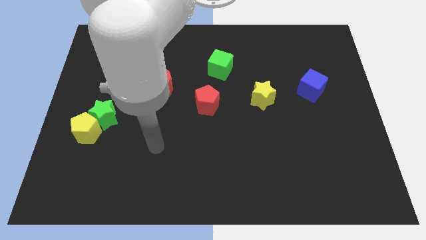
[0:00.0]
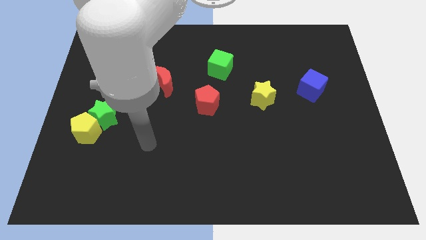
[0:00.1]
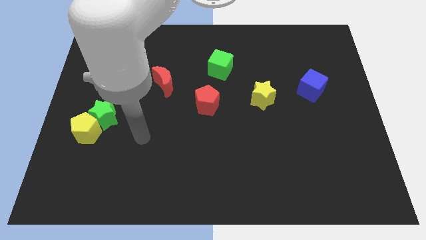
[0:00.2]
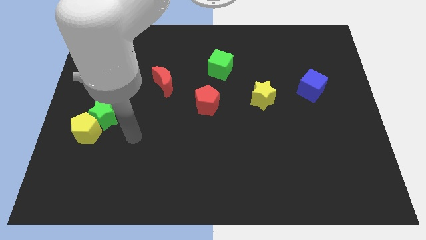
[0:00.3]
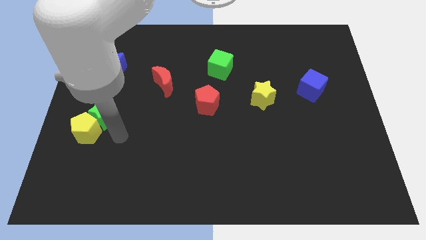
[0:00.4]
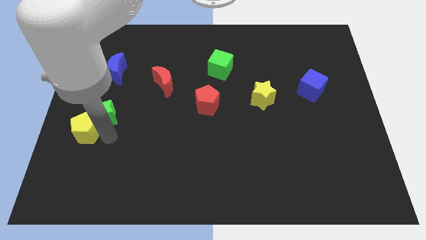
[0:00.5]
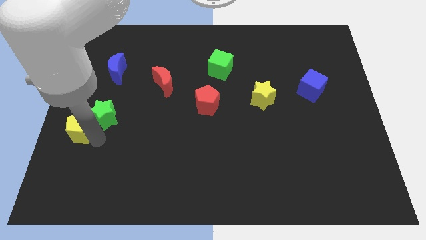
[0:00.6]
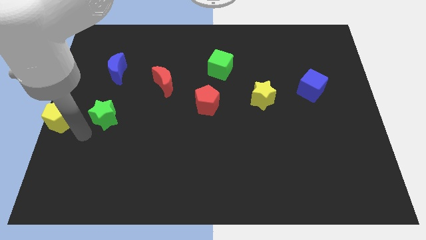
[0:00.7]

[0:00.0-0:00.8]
pull the green star apart from the yellow pentagon

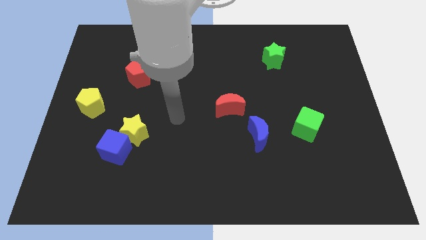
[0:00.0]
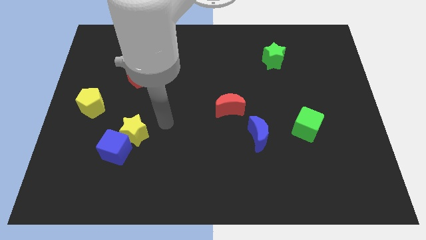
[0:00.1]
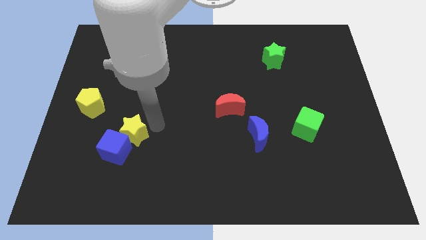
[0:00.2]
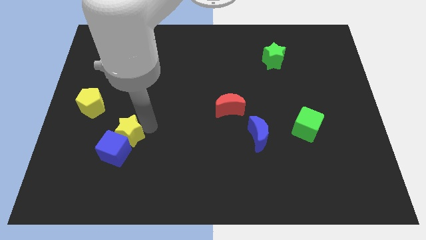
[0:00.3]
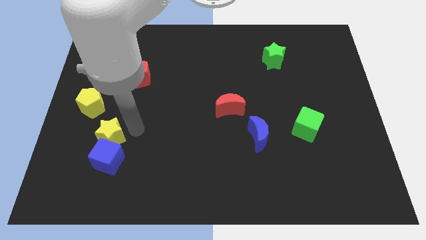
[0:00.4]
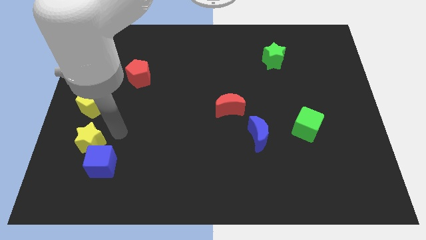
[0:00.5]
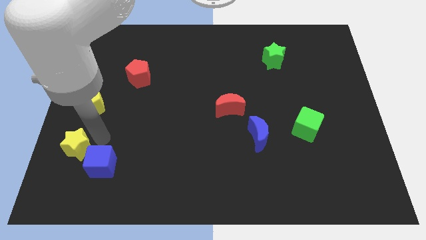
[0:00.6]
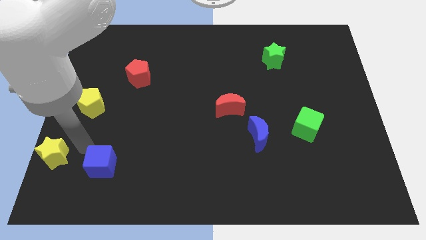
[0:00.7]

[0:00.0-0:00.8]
pull the blue cube apart from the yellow star

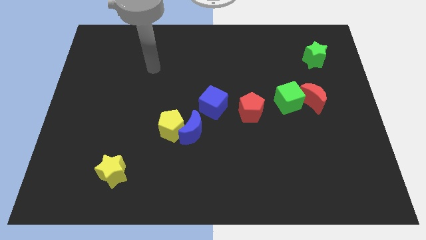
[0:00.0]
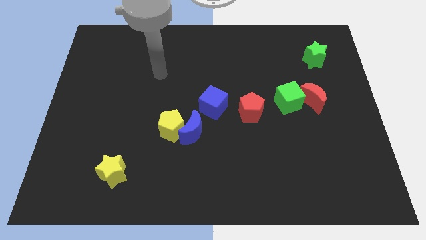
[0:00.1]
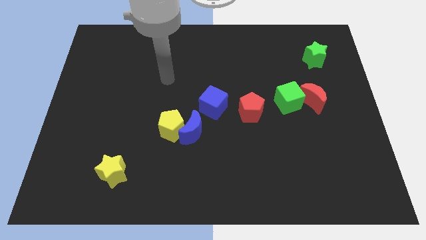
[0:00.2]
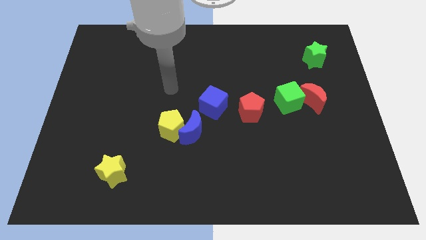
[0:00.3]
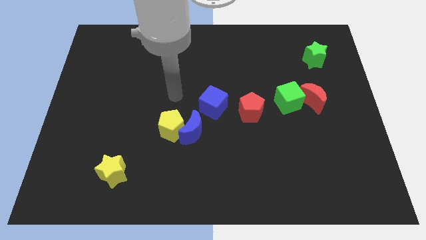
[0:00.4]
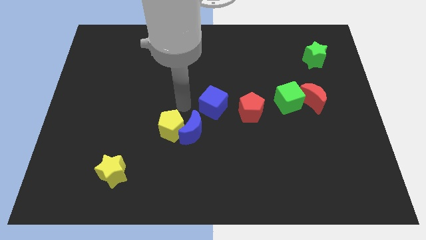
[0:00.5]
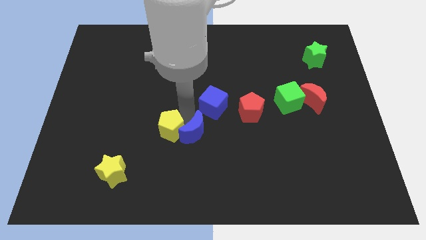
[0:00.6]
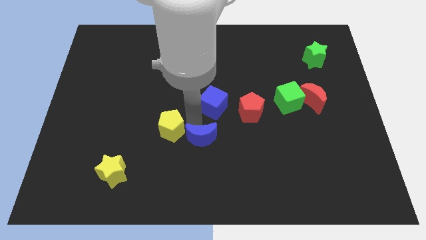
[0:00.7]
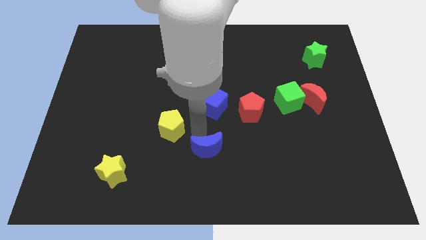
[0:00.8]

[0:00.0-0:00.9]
pull the yellow pentagon apart from the blue moon

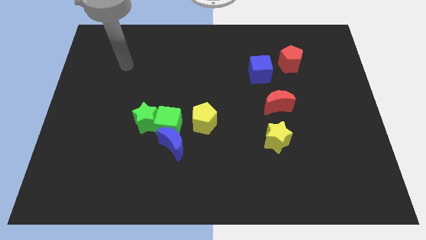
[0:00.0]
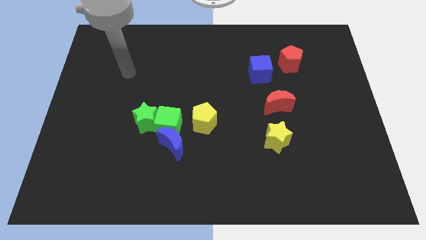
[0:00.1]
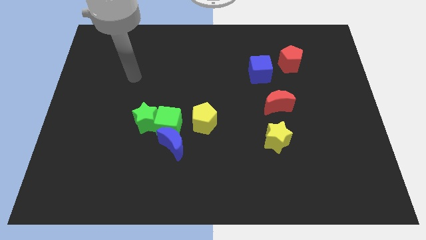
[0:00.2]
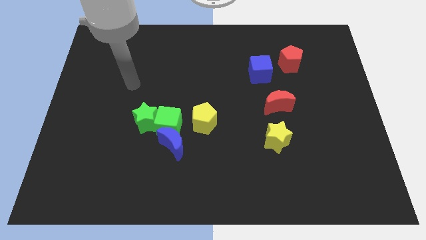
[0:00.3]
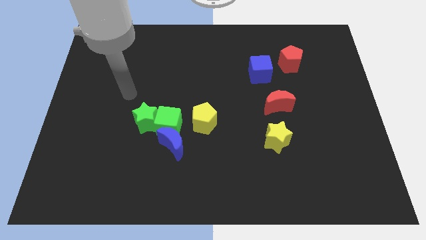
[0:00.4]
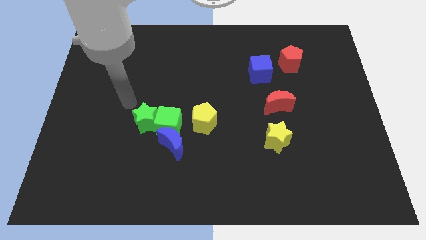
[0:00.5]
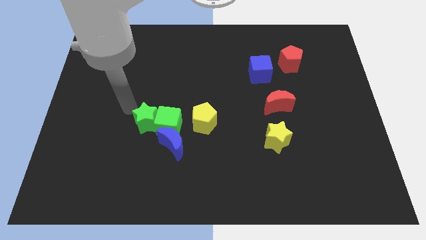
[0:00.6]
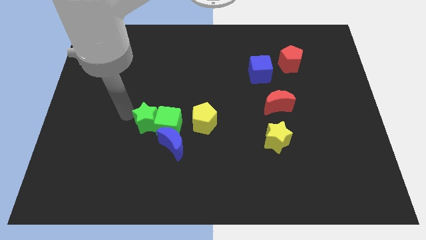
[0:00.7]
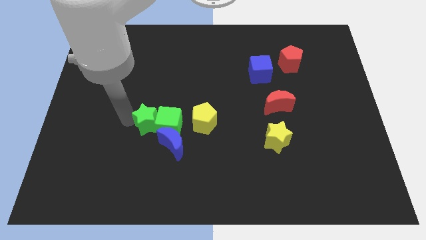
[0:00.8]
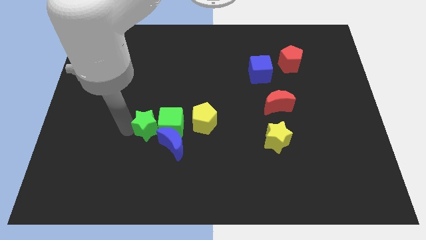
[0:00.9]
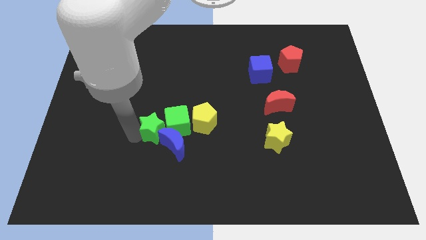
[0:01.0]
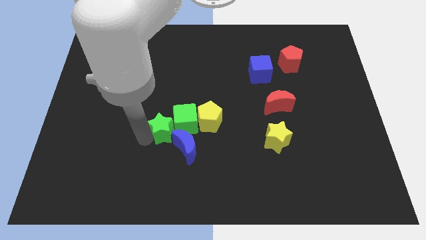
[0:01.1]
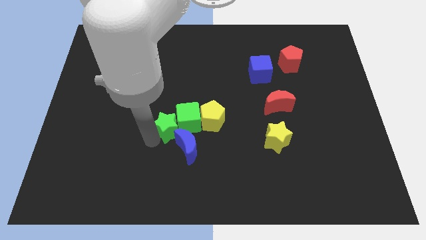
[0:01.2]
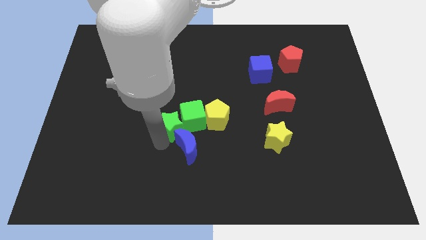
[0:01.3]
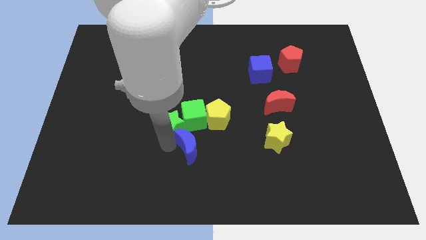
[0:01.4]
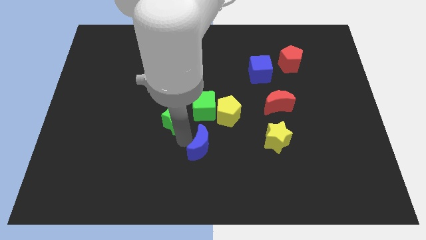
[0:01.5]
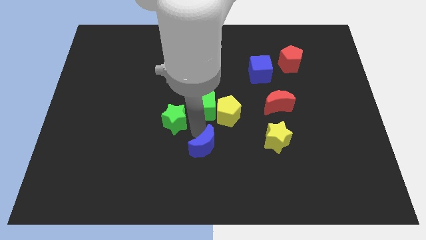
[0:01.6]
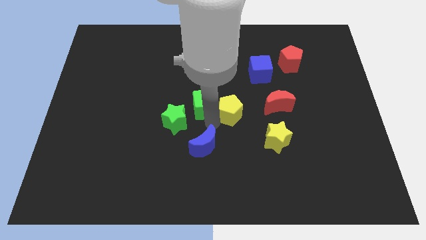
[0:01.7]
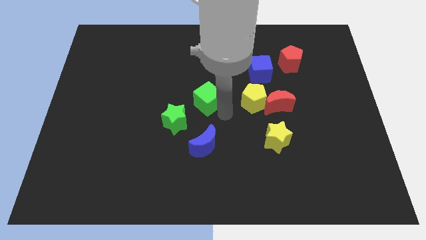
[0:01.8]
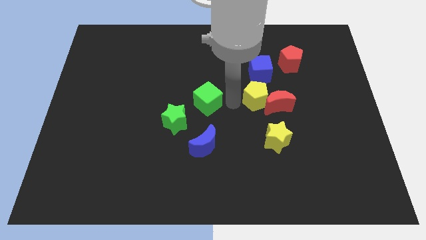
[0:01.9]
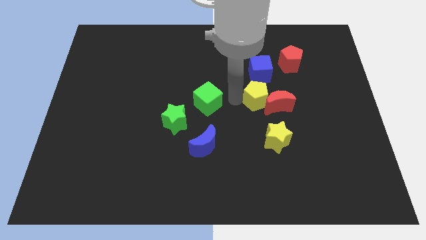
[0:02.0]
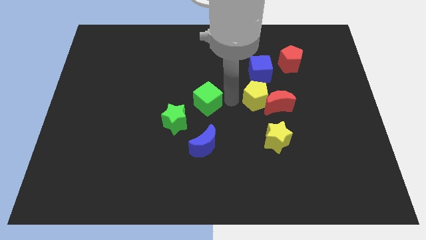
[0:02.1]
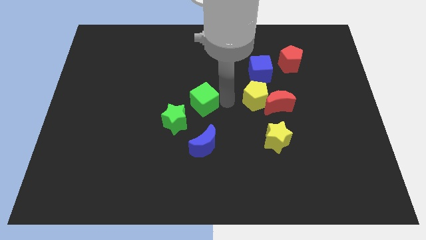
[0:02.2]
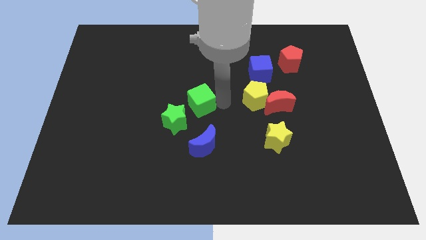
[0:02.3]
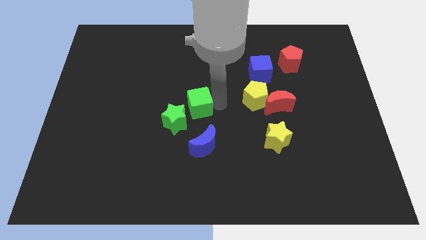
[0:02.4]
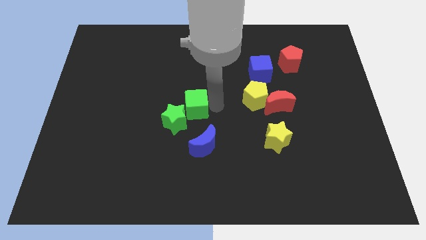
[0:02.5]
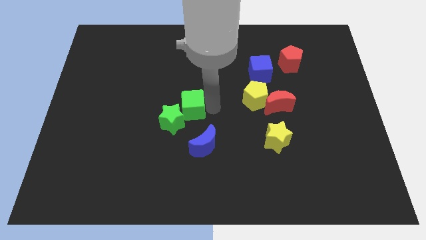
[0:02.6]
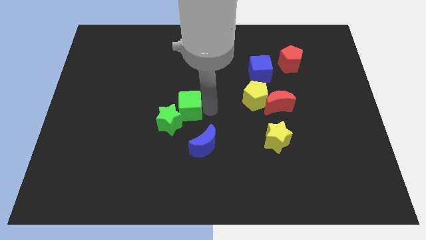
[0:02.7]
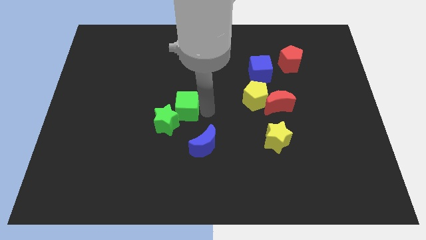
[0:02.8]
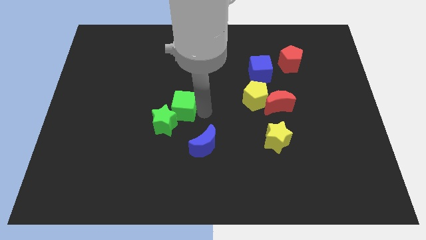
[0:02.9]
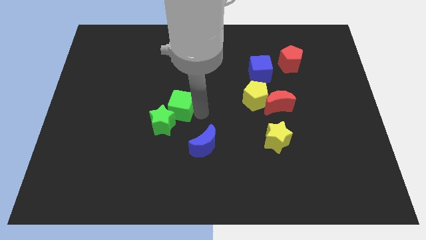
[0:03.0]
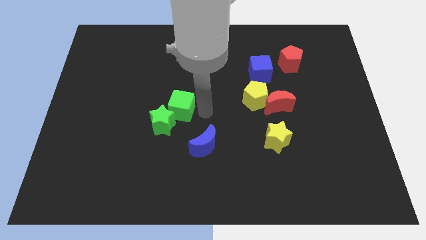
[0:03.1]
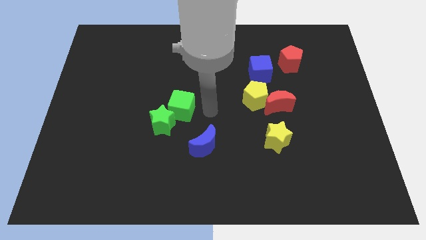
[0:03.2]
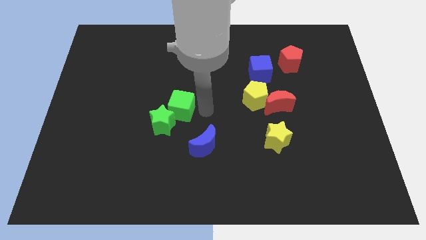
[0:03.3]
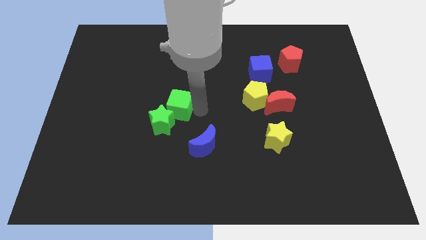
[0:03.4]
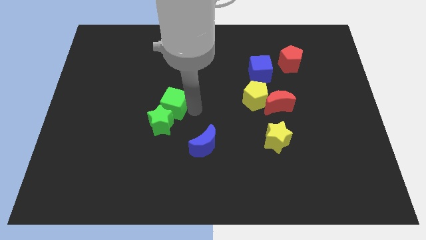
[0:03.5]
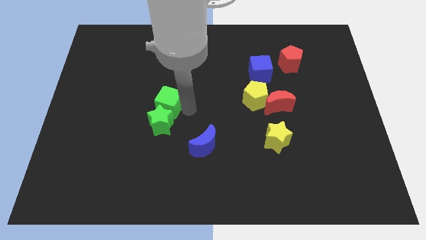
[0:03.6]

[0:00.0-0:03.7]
move the green cube away from the group

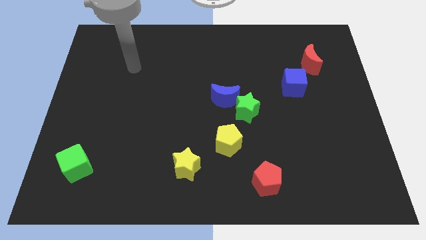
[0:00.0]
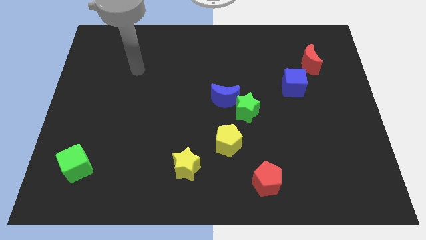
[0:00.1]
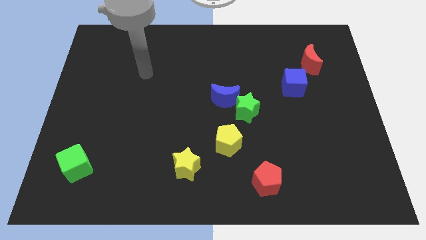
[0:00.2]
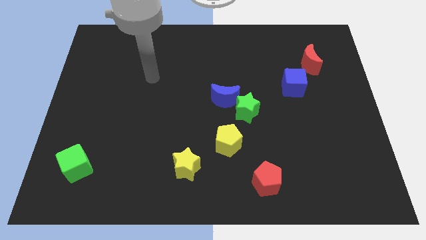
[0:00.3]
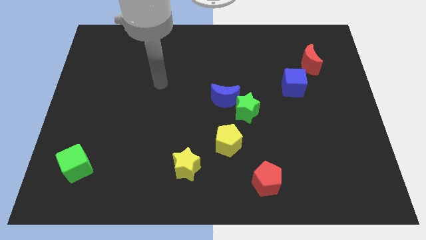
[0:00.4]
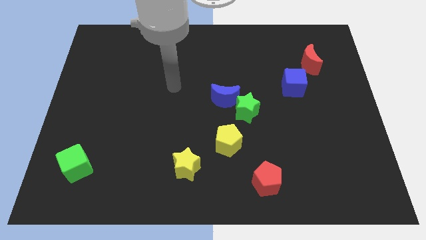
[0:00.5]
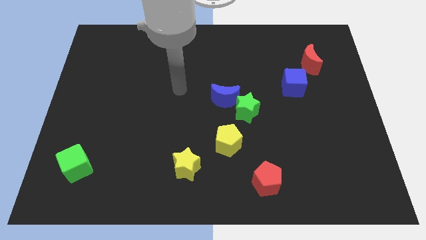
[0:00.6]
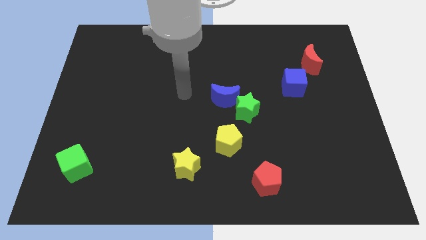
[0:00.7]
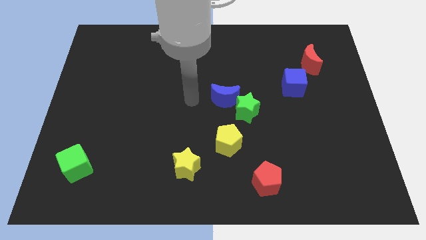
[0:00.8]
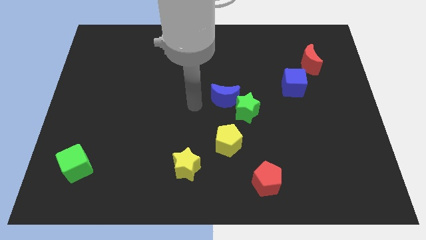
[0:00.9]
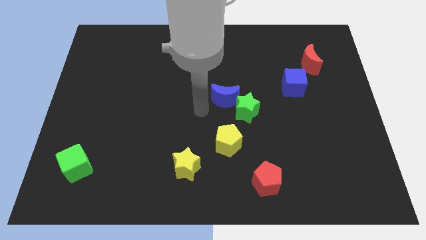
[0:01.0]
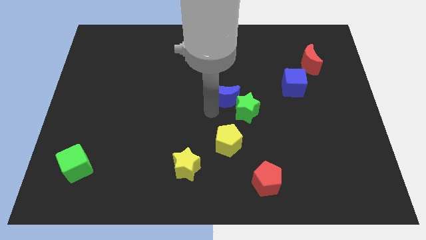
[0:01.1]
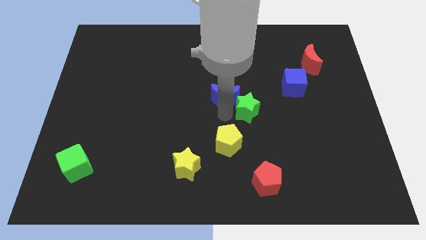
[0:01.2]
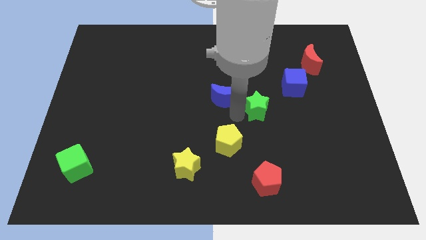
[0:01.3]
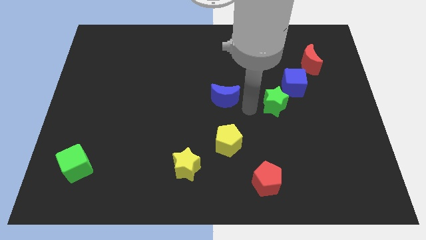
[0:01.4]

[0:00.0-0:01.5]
move the blue moon away from the green star

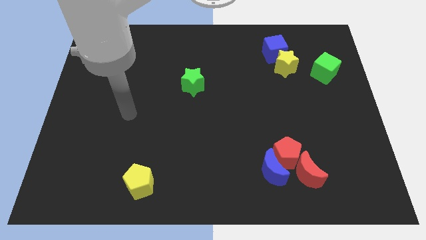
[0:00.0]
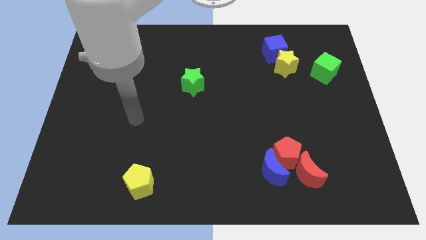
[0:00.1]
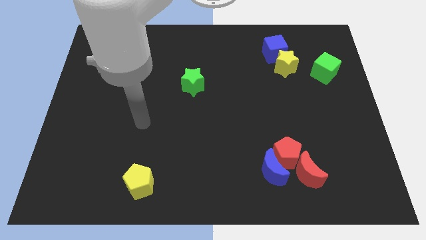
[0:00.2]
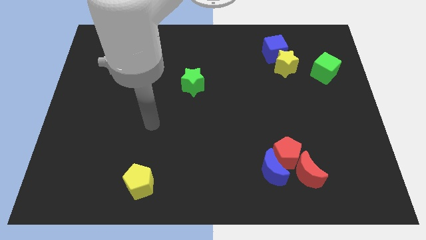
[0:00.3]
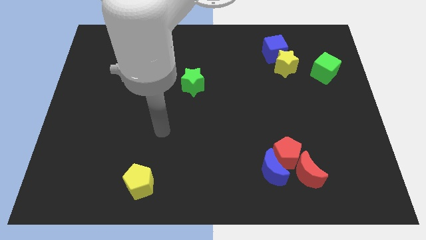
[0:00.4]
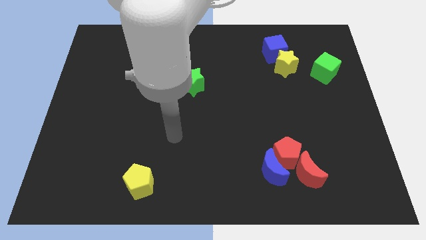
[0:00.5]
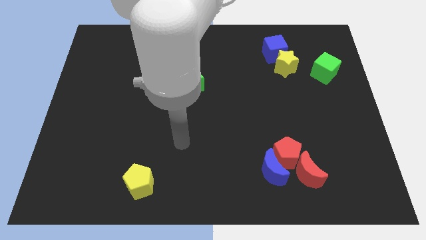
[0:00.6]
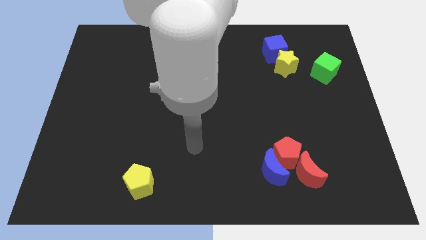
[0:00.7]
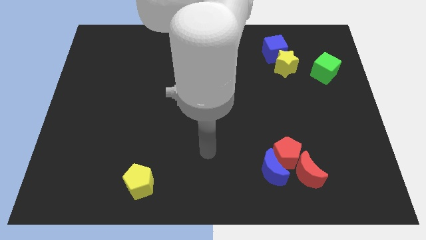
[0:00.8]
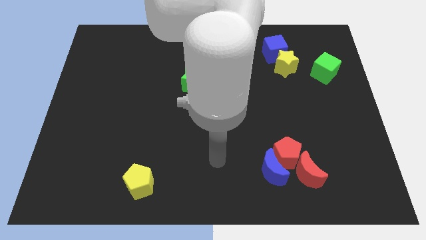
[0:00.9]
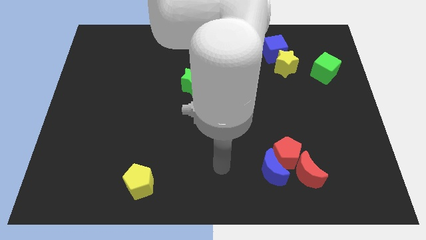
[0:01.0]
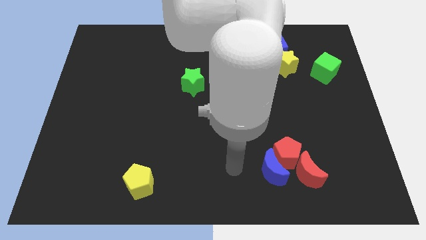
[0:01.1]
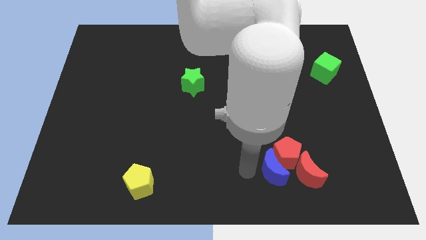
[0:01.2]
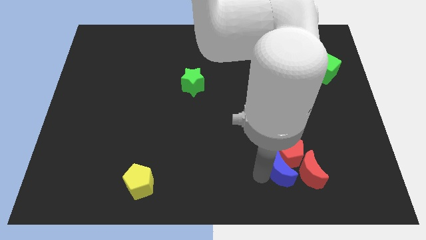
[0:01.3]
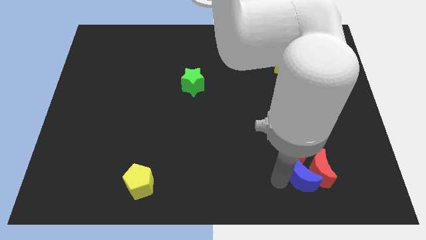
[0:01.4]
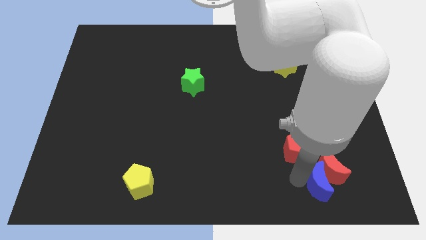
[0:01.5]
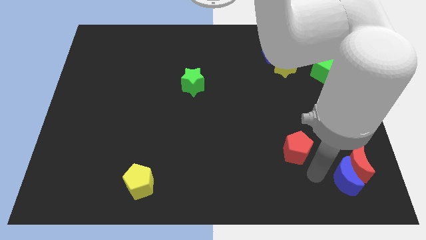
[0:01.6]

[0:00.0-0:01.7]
separate the red pentagon from the blue moon and red moon
